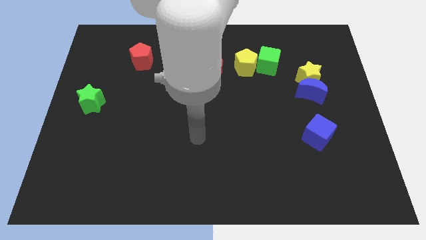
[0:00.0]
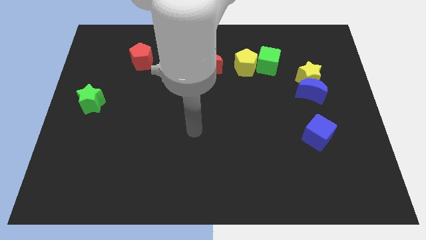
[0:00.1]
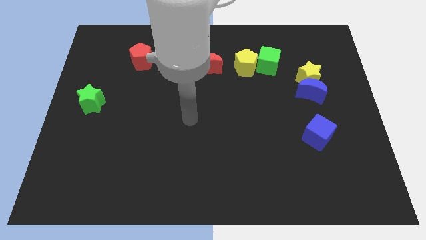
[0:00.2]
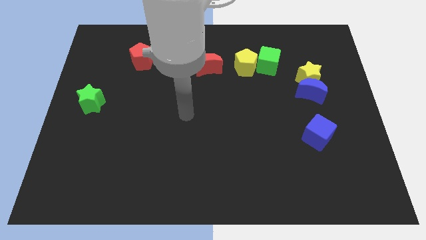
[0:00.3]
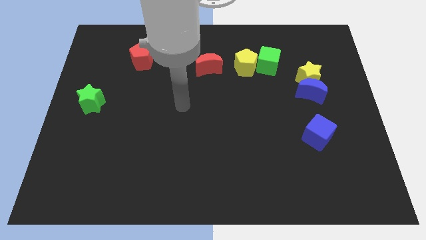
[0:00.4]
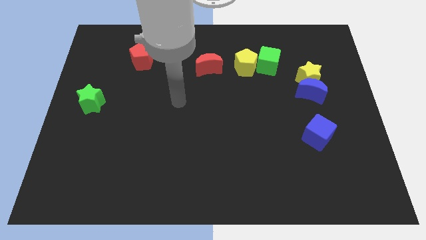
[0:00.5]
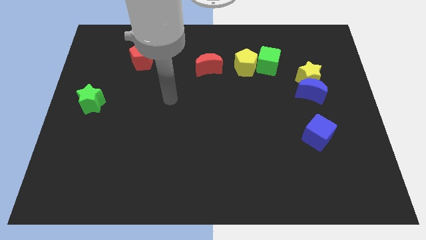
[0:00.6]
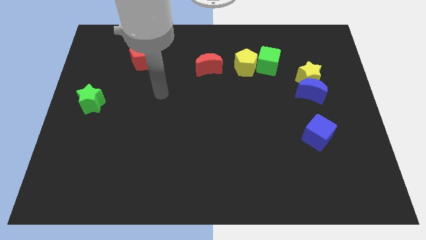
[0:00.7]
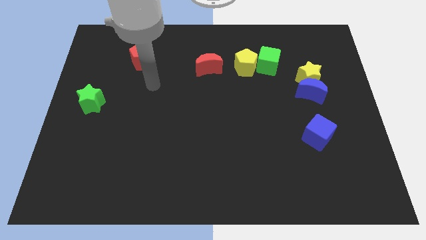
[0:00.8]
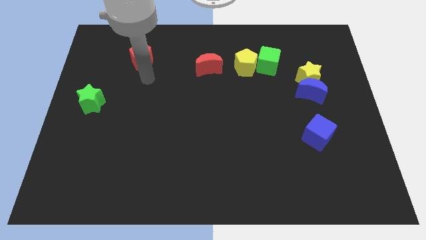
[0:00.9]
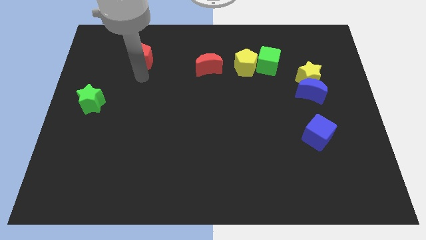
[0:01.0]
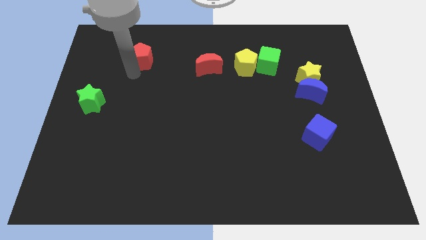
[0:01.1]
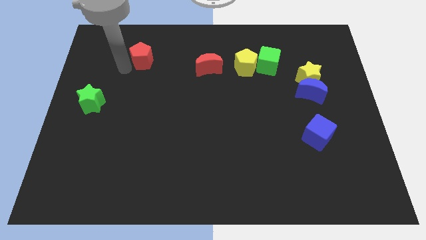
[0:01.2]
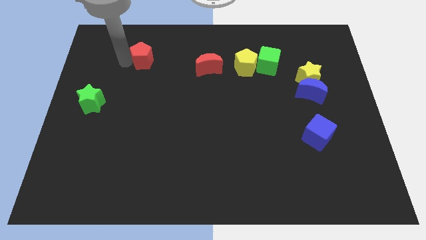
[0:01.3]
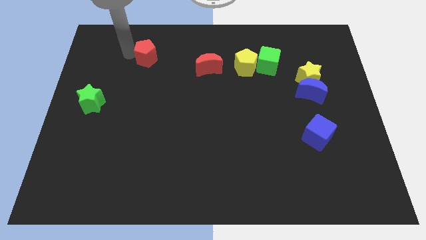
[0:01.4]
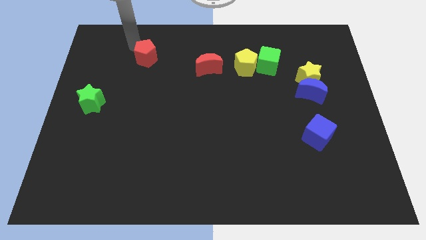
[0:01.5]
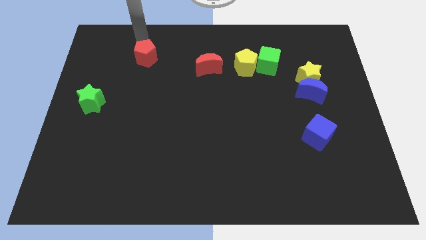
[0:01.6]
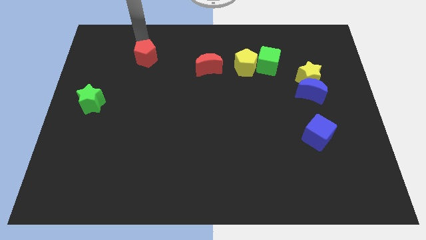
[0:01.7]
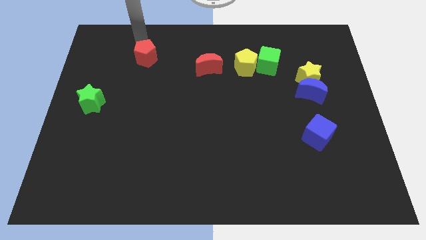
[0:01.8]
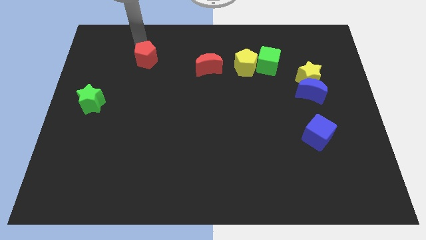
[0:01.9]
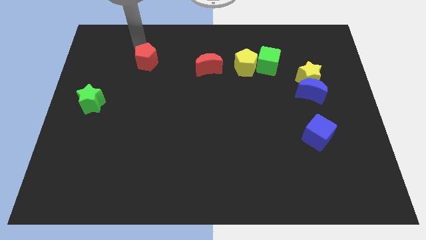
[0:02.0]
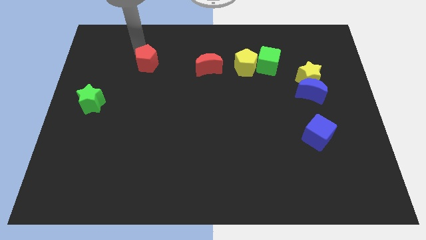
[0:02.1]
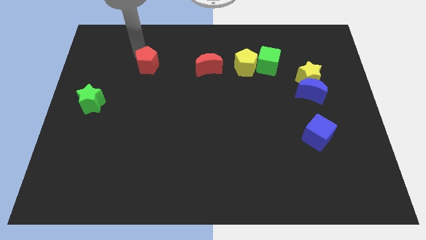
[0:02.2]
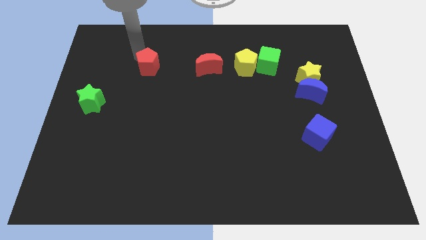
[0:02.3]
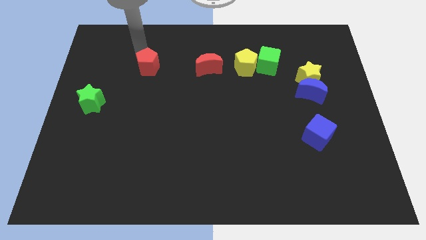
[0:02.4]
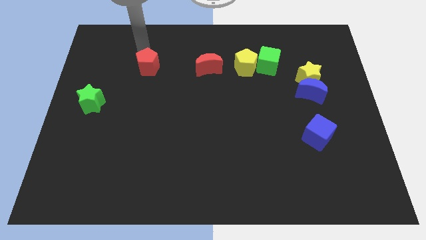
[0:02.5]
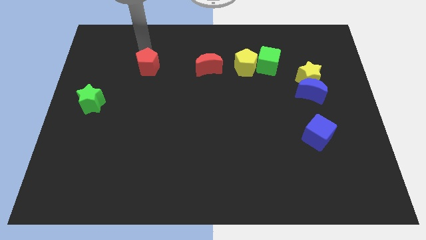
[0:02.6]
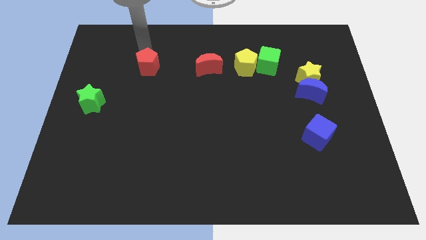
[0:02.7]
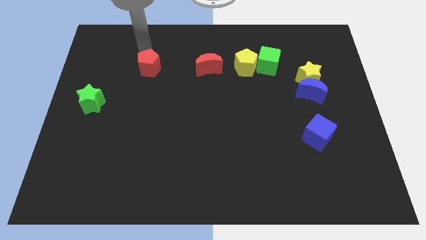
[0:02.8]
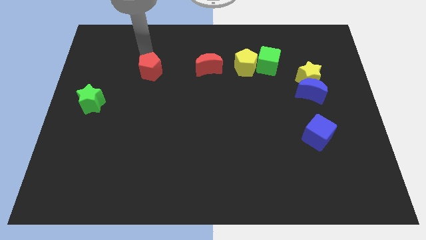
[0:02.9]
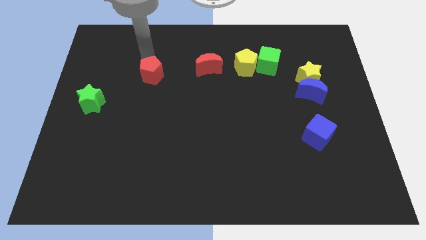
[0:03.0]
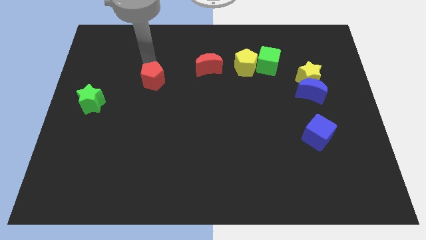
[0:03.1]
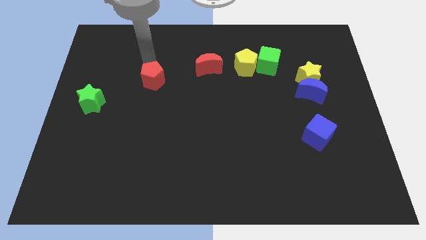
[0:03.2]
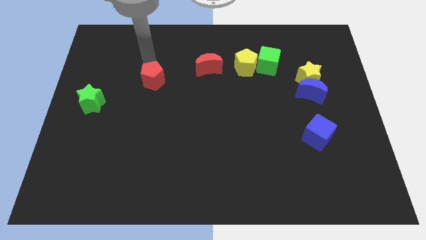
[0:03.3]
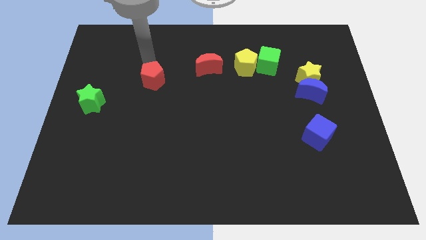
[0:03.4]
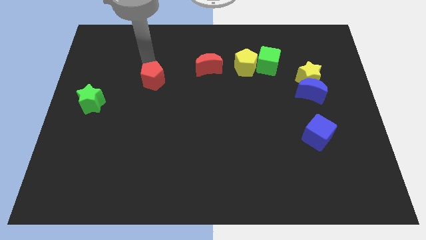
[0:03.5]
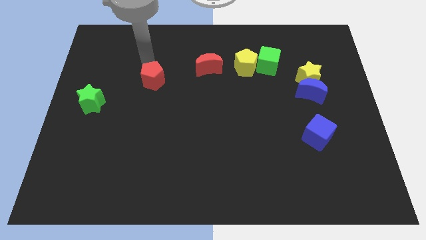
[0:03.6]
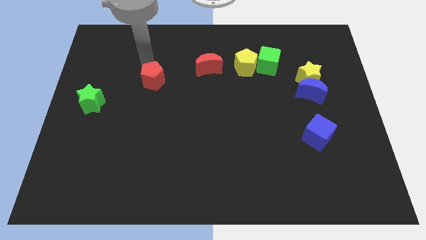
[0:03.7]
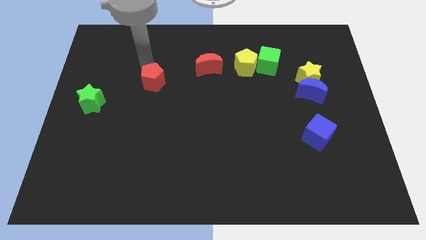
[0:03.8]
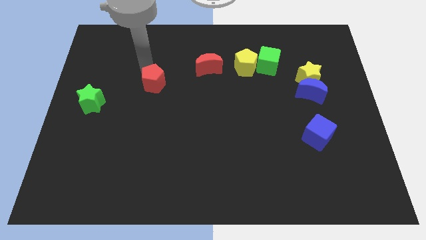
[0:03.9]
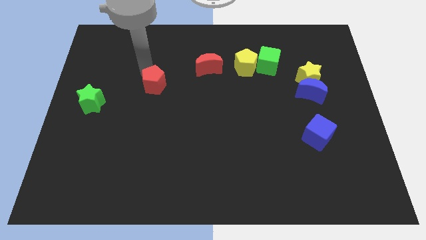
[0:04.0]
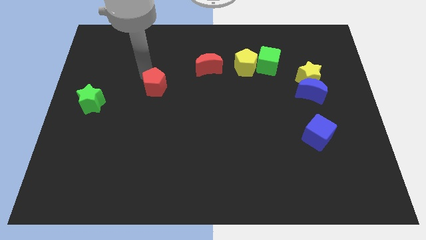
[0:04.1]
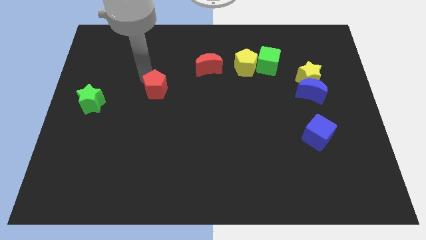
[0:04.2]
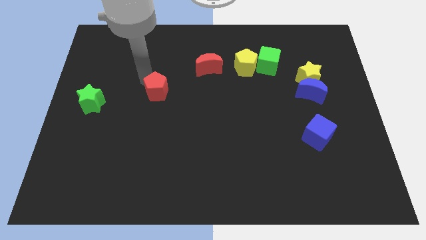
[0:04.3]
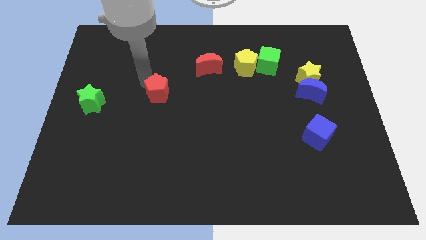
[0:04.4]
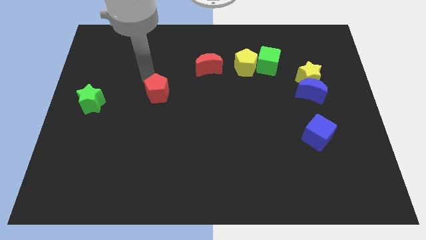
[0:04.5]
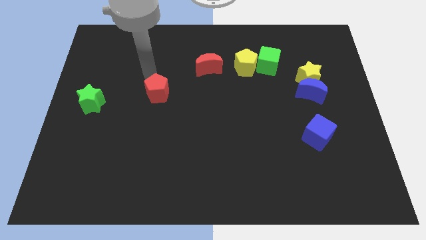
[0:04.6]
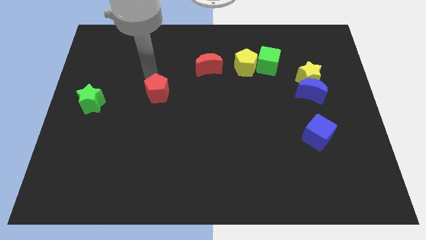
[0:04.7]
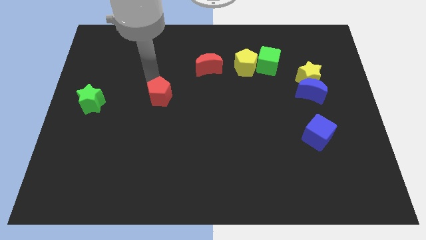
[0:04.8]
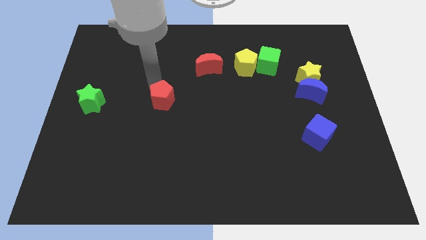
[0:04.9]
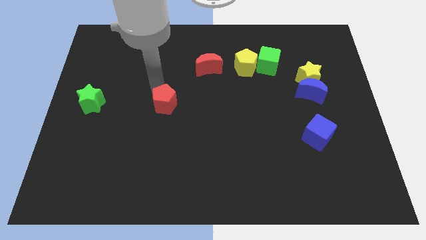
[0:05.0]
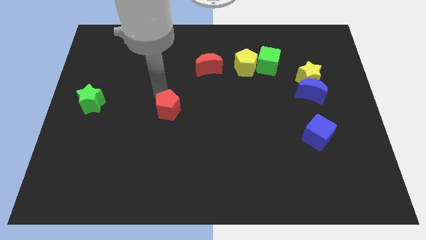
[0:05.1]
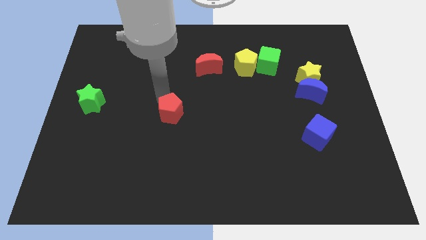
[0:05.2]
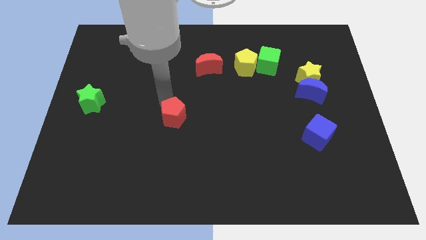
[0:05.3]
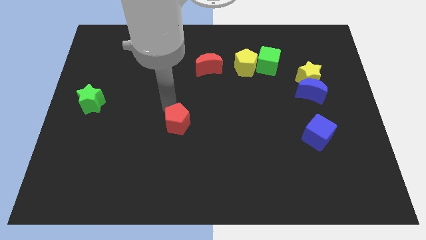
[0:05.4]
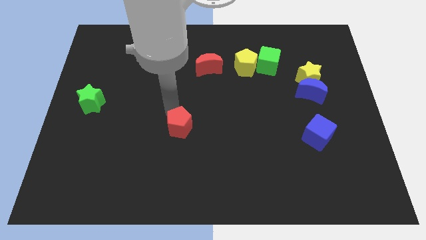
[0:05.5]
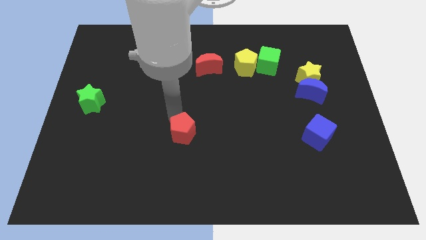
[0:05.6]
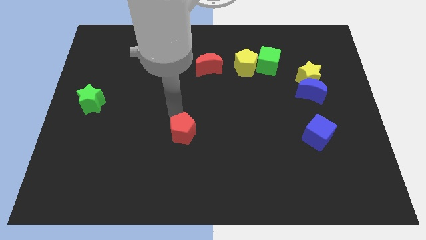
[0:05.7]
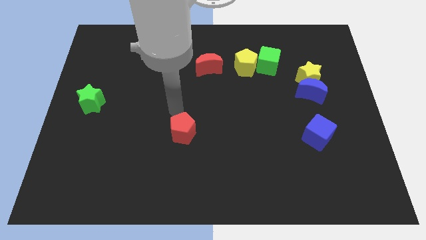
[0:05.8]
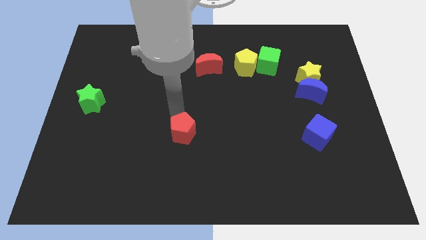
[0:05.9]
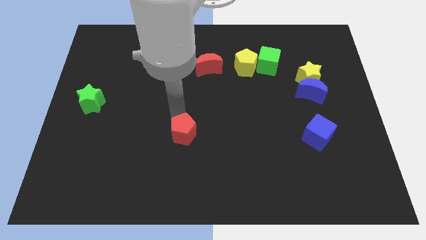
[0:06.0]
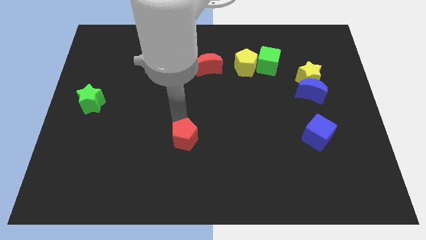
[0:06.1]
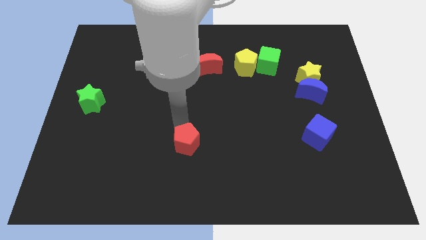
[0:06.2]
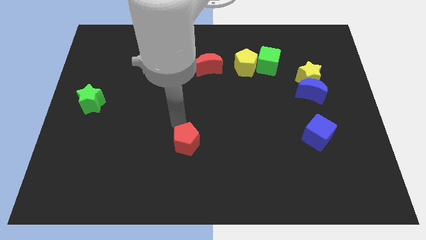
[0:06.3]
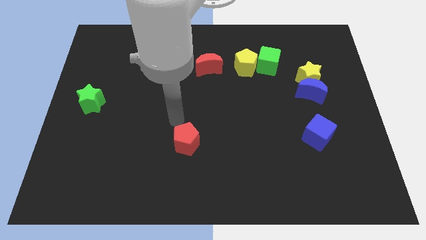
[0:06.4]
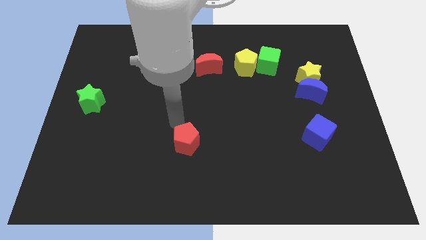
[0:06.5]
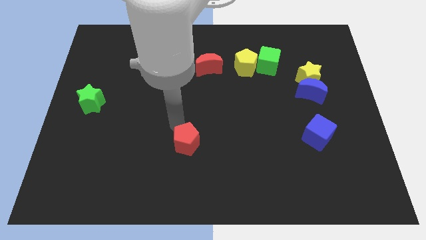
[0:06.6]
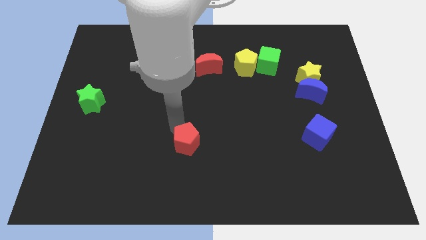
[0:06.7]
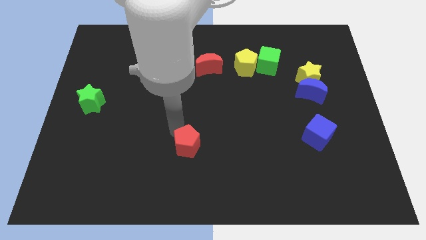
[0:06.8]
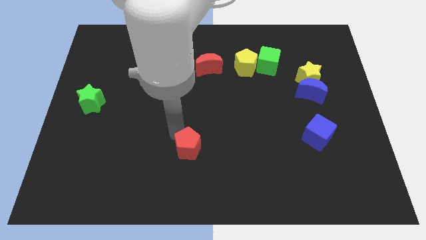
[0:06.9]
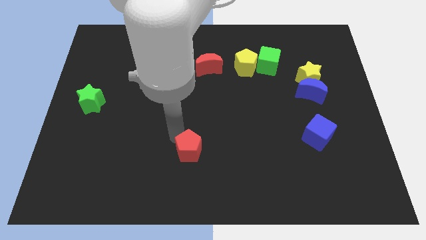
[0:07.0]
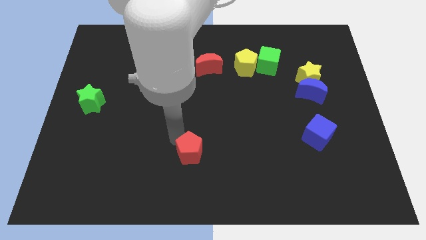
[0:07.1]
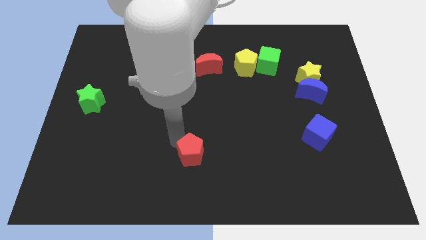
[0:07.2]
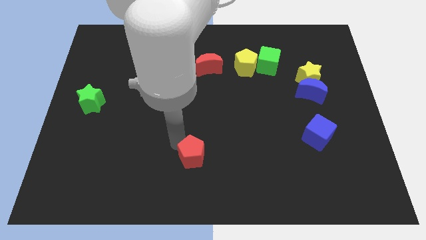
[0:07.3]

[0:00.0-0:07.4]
put the red pentagon to the bottom
